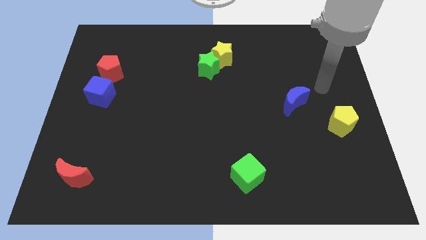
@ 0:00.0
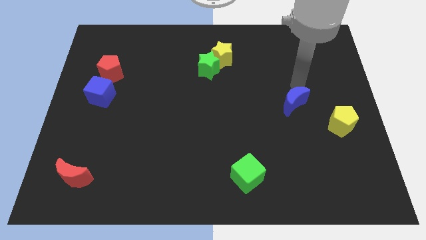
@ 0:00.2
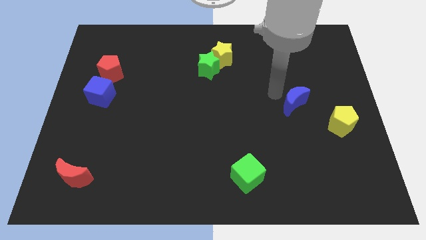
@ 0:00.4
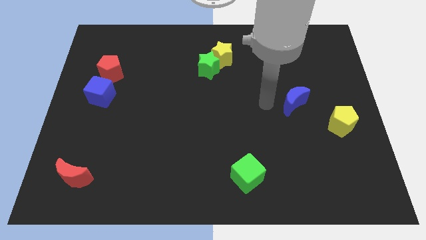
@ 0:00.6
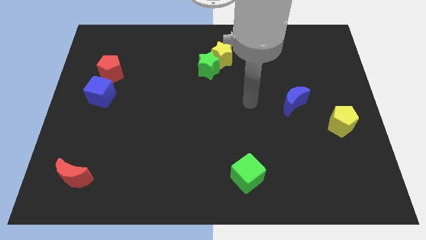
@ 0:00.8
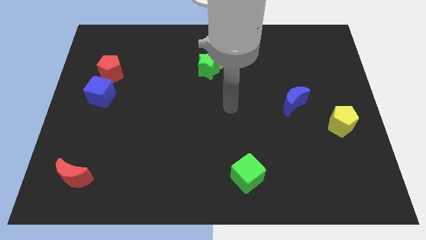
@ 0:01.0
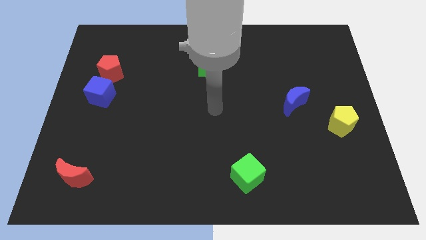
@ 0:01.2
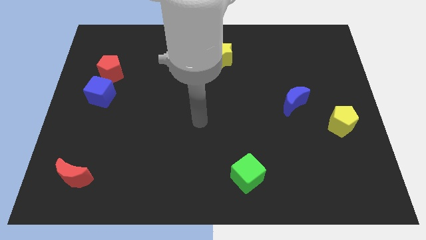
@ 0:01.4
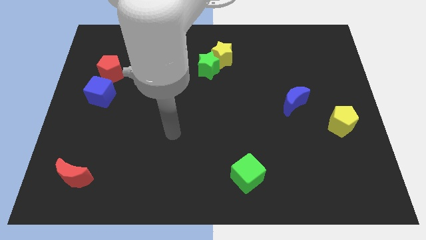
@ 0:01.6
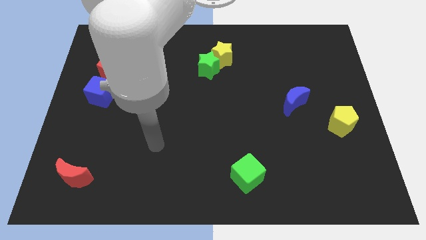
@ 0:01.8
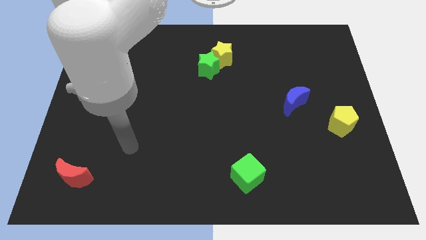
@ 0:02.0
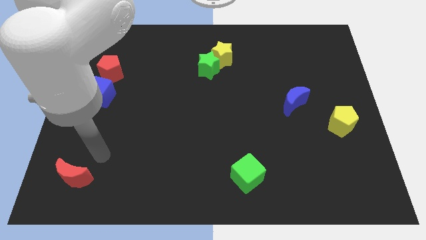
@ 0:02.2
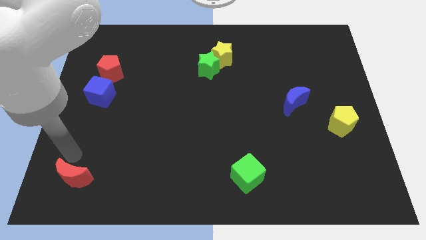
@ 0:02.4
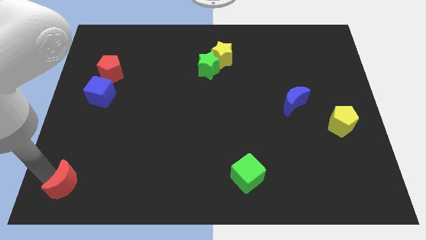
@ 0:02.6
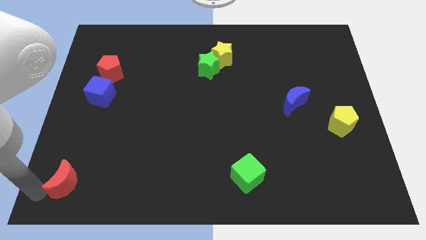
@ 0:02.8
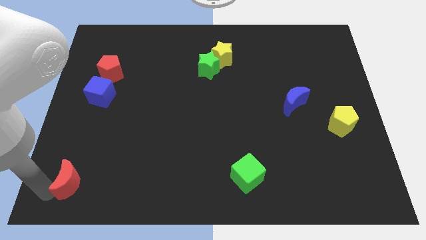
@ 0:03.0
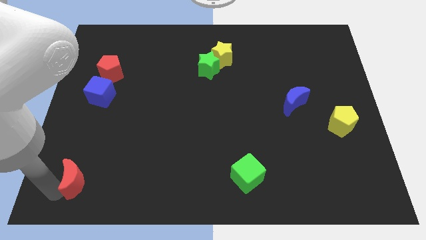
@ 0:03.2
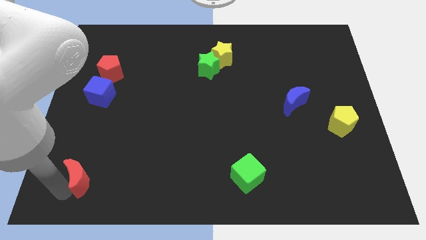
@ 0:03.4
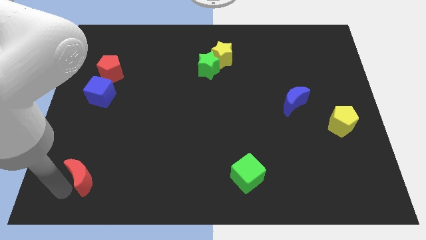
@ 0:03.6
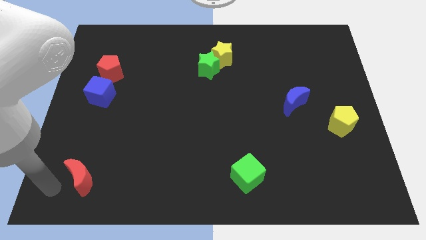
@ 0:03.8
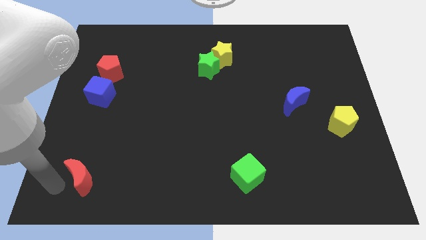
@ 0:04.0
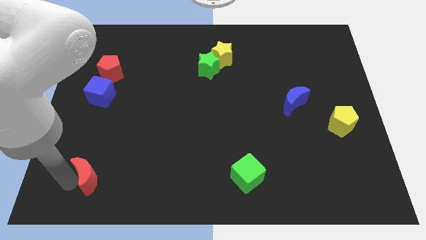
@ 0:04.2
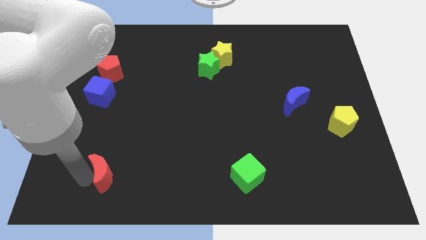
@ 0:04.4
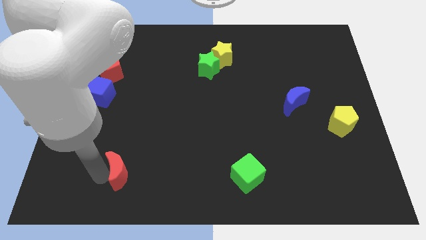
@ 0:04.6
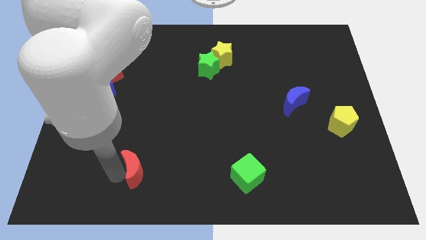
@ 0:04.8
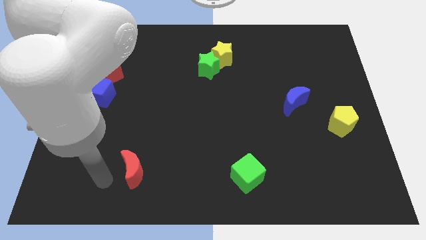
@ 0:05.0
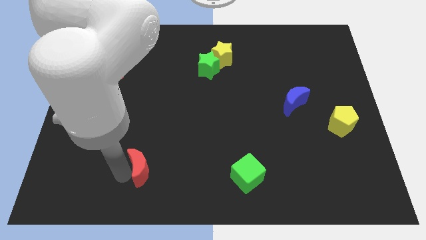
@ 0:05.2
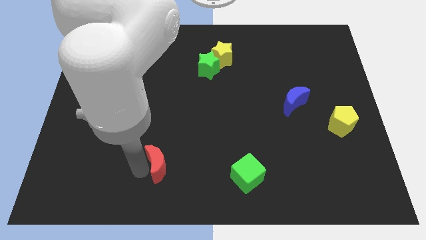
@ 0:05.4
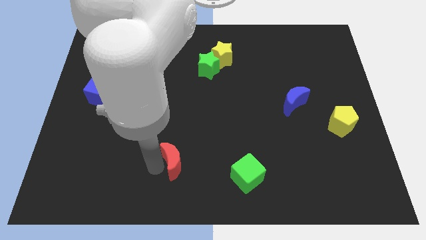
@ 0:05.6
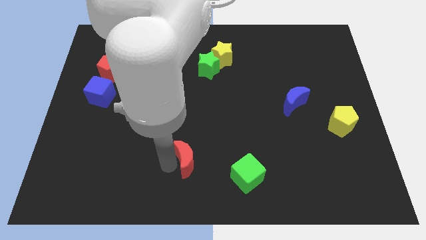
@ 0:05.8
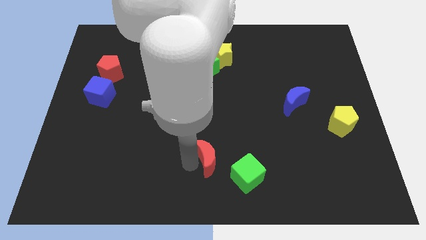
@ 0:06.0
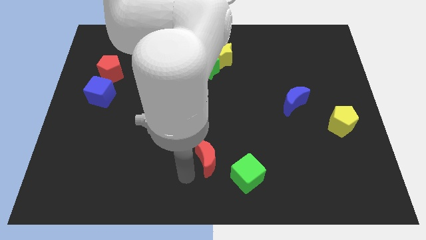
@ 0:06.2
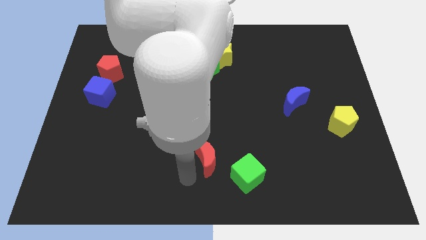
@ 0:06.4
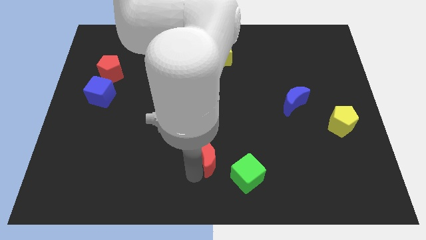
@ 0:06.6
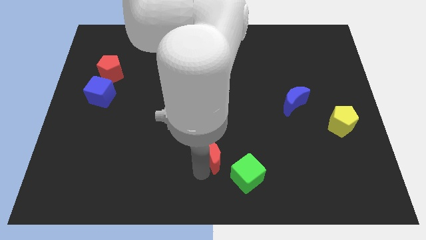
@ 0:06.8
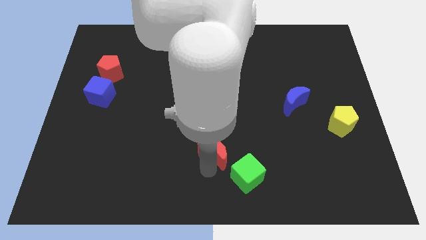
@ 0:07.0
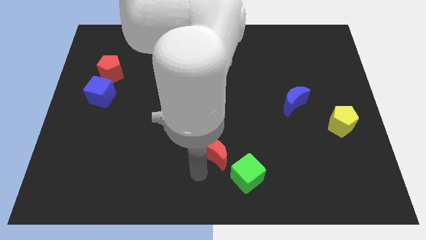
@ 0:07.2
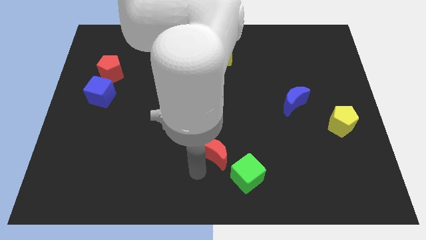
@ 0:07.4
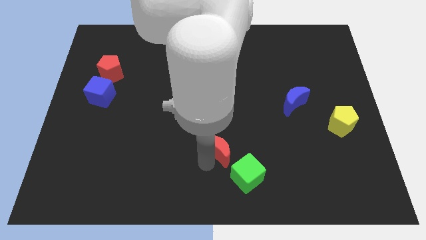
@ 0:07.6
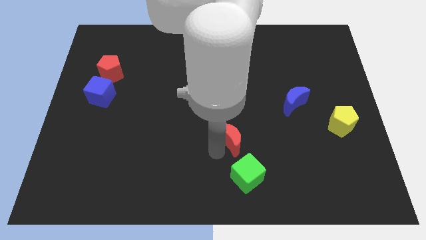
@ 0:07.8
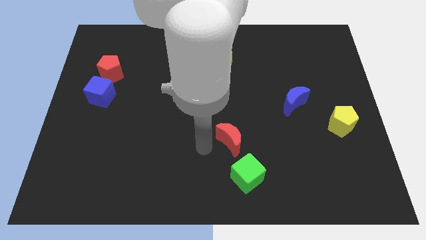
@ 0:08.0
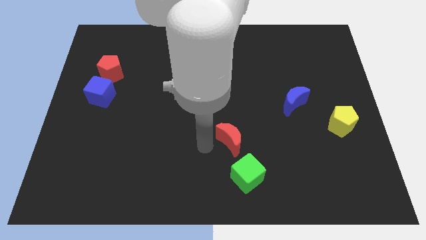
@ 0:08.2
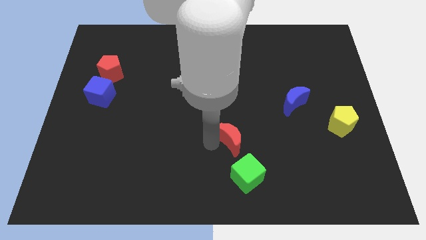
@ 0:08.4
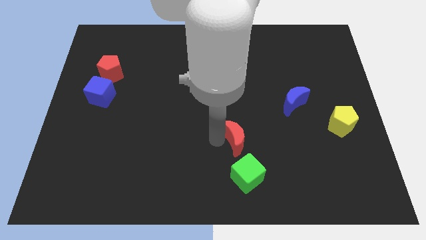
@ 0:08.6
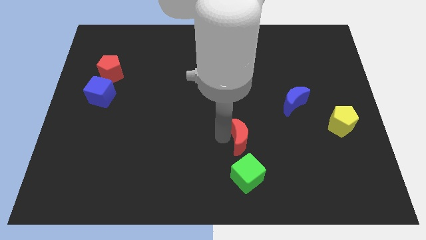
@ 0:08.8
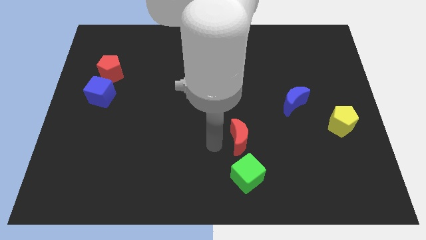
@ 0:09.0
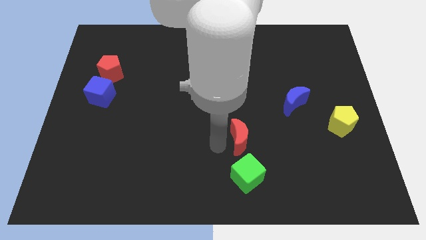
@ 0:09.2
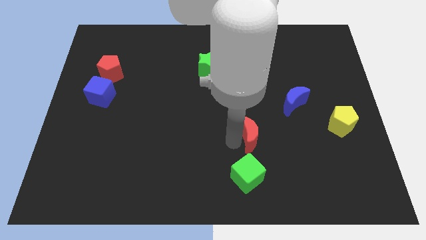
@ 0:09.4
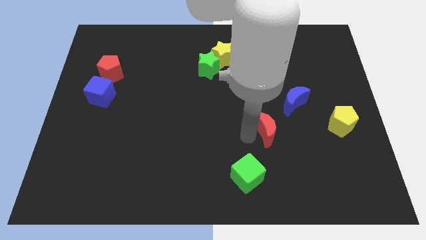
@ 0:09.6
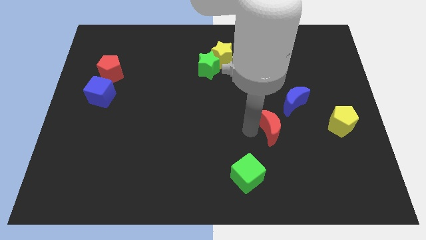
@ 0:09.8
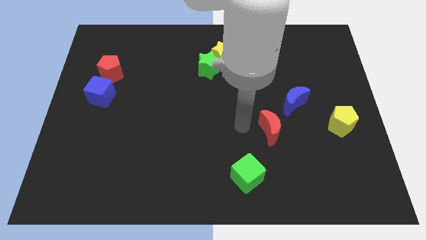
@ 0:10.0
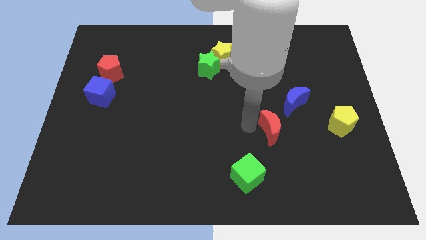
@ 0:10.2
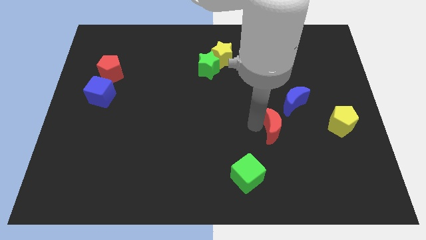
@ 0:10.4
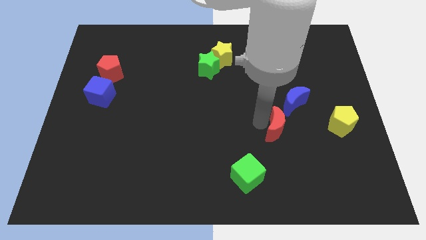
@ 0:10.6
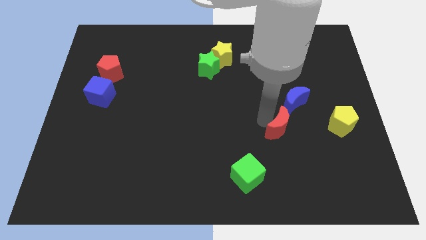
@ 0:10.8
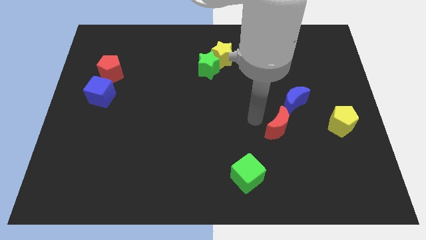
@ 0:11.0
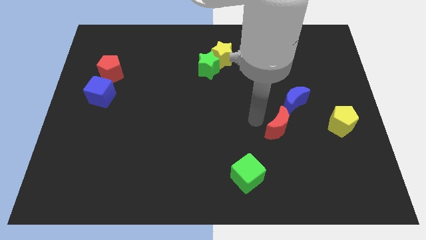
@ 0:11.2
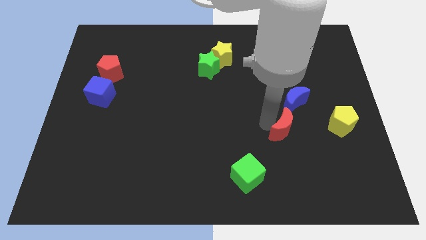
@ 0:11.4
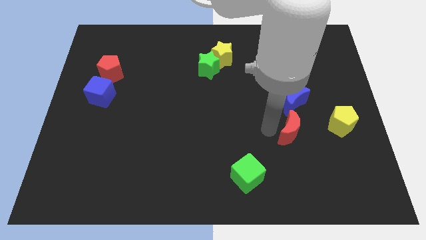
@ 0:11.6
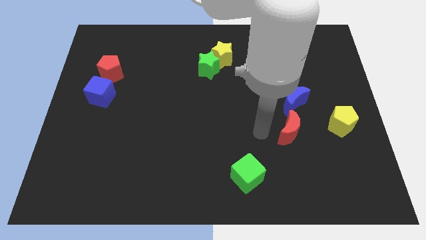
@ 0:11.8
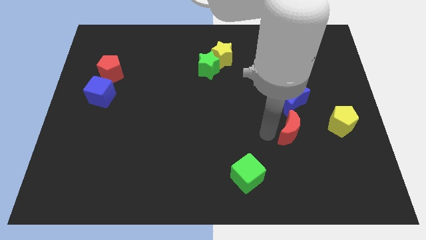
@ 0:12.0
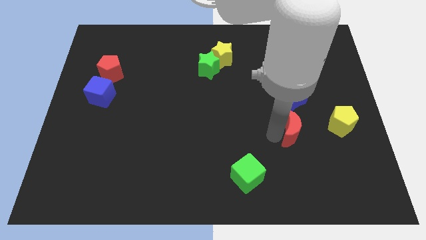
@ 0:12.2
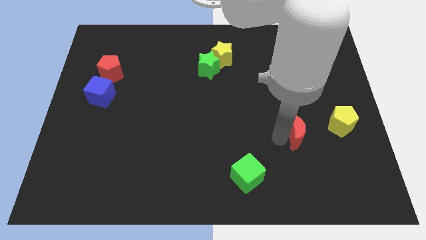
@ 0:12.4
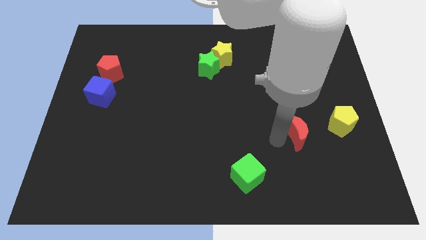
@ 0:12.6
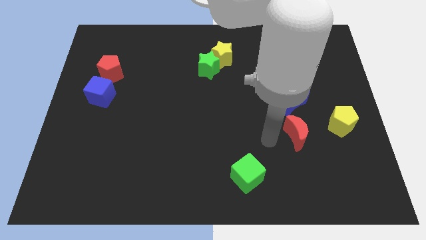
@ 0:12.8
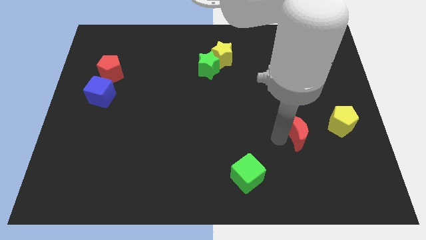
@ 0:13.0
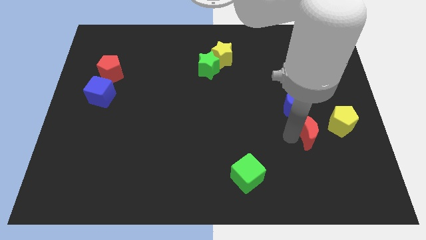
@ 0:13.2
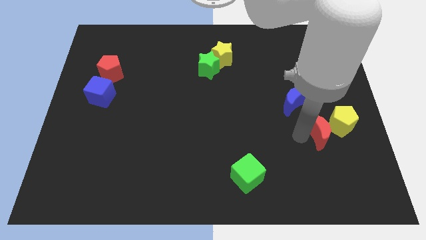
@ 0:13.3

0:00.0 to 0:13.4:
put the red moon close to the yellow pentagon

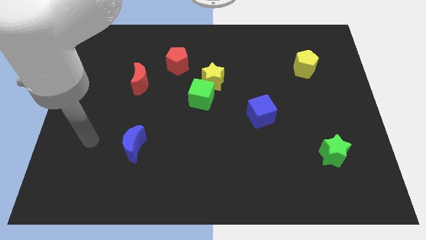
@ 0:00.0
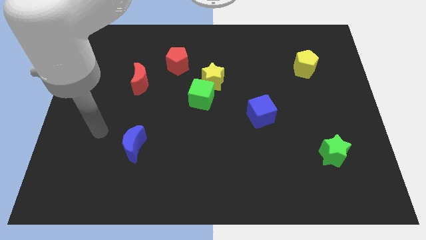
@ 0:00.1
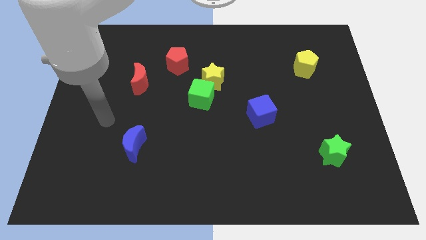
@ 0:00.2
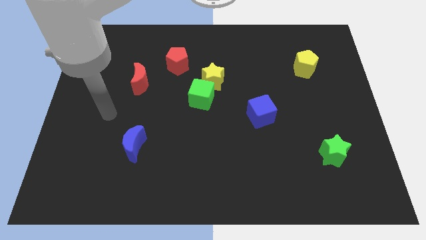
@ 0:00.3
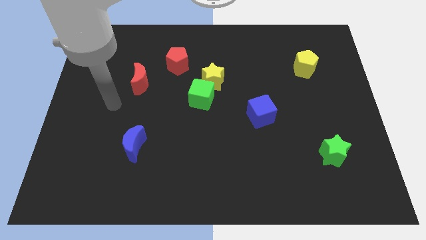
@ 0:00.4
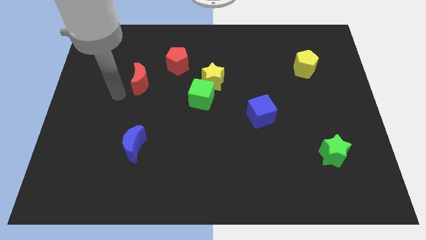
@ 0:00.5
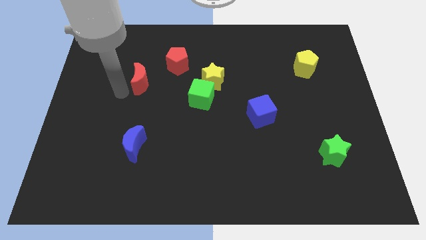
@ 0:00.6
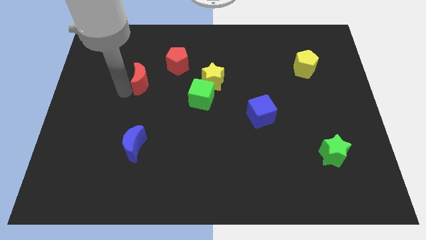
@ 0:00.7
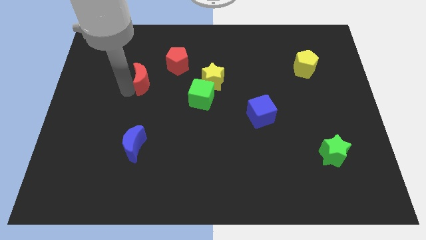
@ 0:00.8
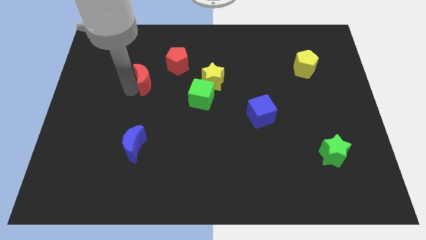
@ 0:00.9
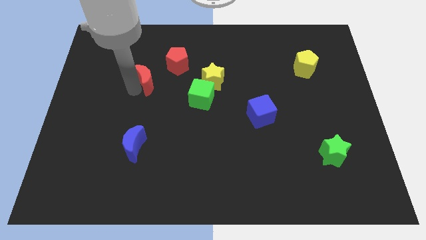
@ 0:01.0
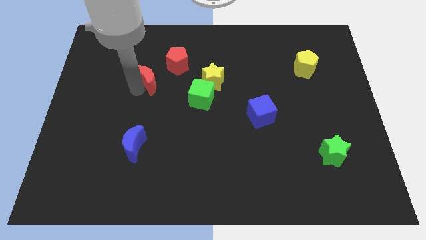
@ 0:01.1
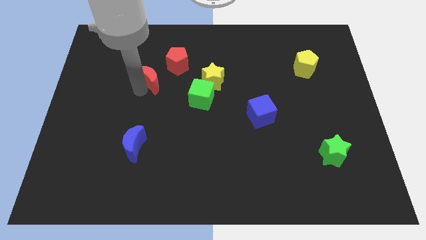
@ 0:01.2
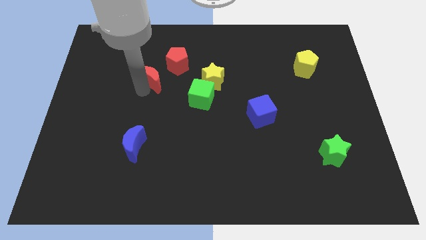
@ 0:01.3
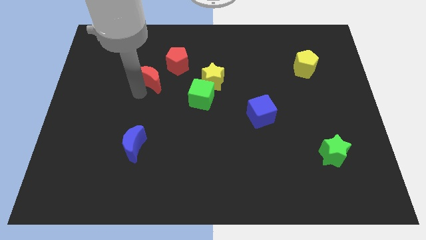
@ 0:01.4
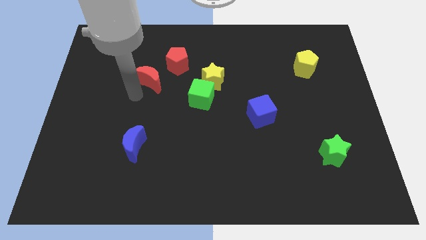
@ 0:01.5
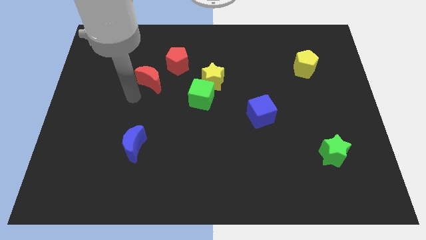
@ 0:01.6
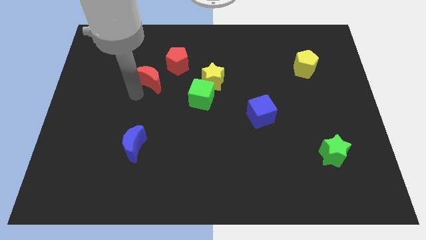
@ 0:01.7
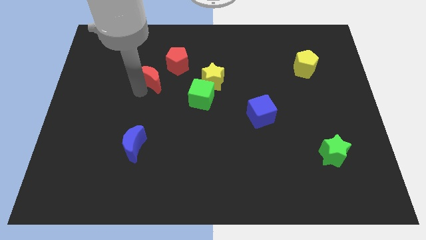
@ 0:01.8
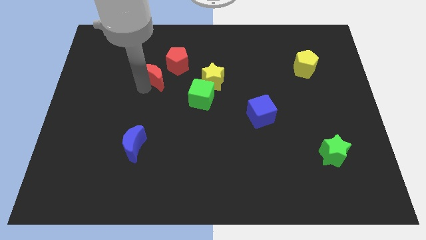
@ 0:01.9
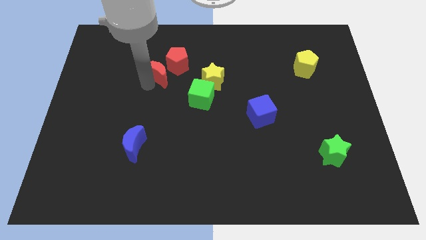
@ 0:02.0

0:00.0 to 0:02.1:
move the red moon towards the red pentagon
